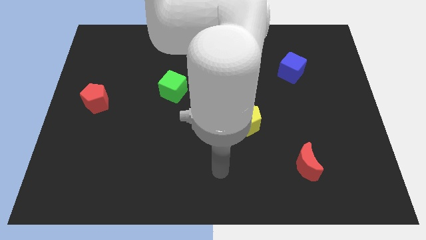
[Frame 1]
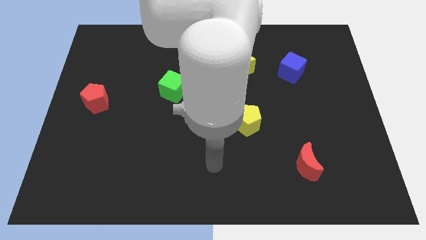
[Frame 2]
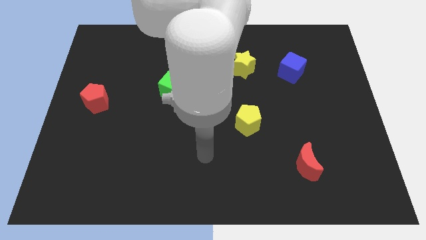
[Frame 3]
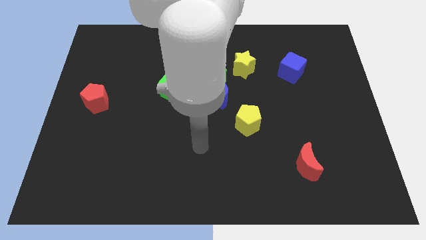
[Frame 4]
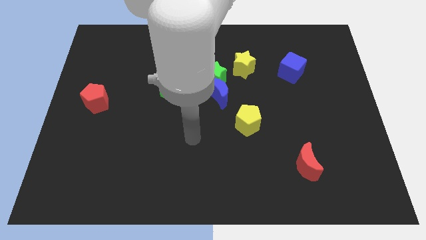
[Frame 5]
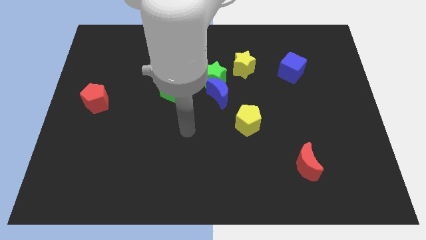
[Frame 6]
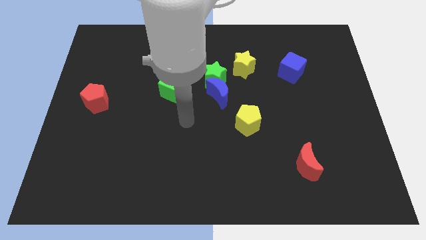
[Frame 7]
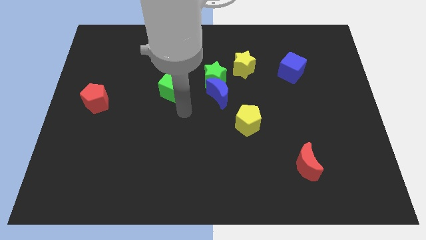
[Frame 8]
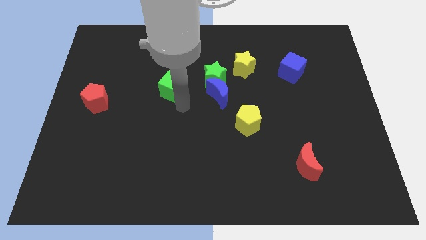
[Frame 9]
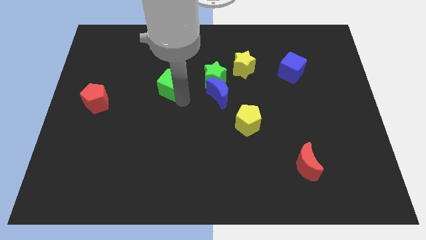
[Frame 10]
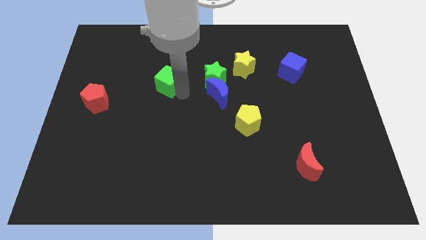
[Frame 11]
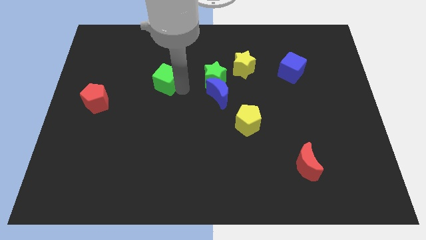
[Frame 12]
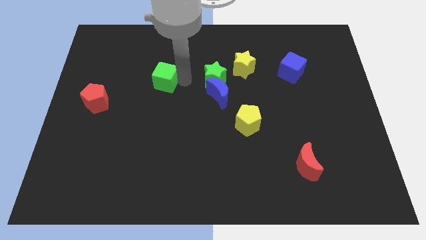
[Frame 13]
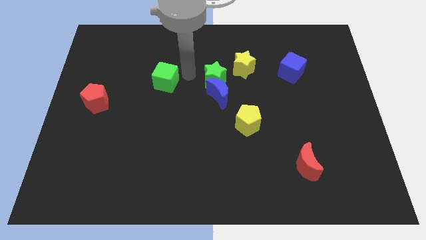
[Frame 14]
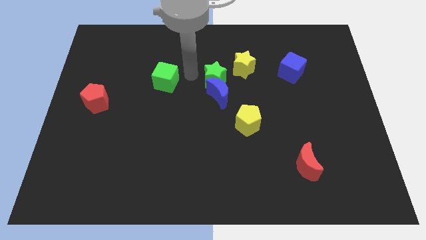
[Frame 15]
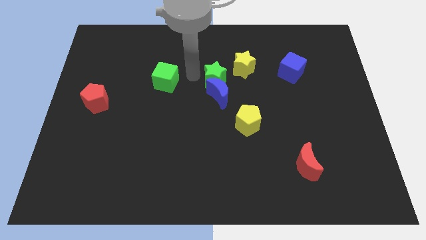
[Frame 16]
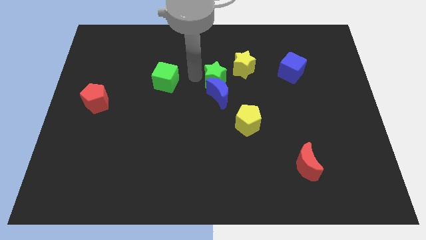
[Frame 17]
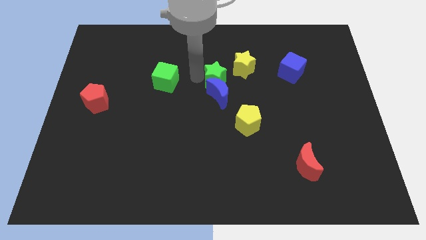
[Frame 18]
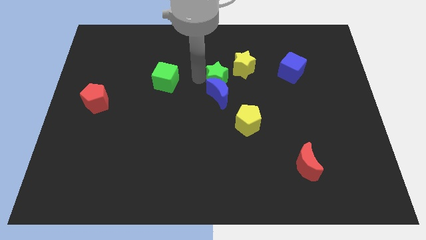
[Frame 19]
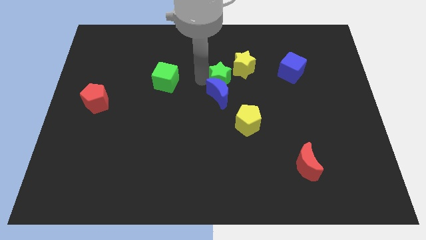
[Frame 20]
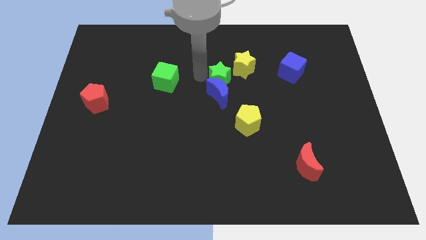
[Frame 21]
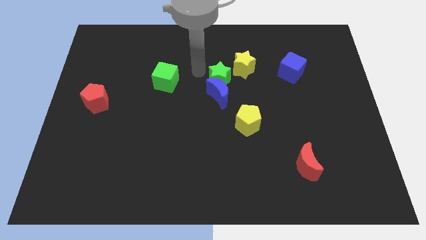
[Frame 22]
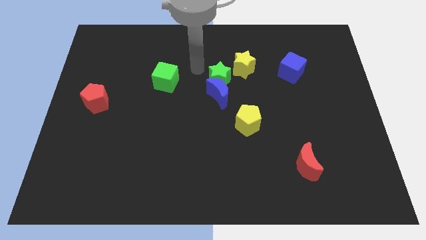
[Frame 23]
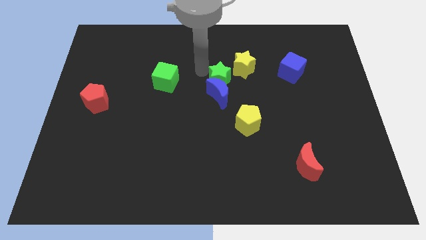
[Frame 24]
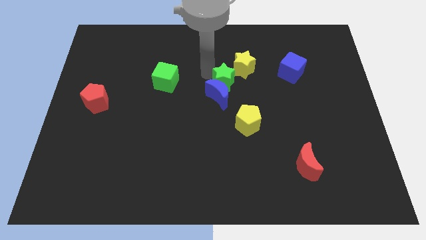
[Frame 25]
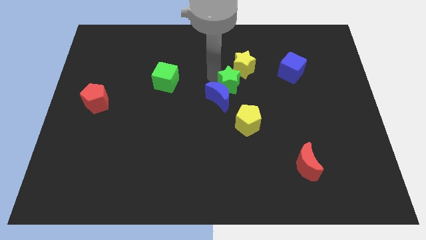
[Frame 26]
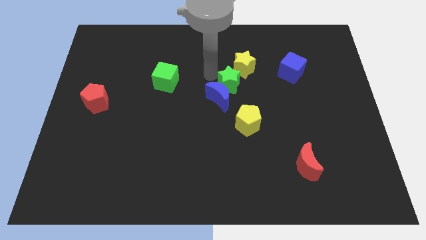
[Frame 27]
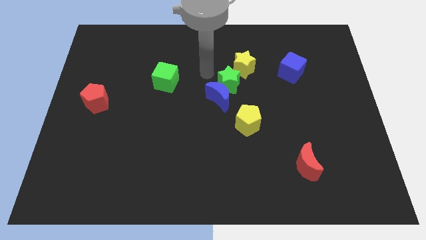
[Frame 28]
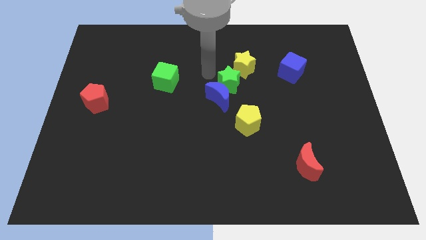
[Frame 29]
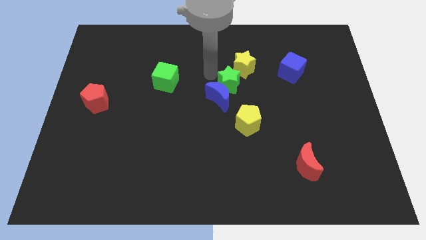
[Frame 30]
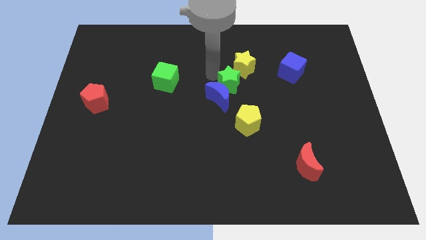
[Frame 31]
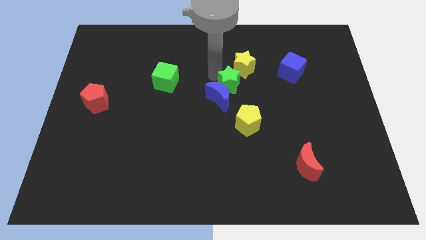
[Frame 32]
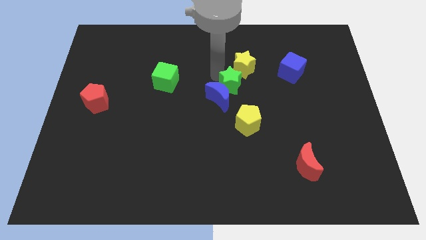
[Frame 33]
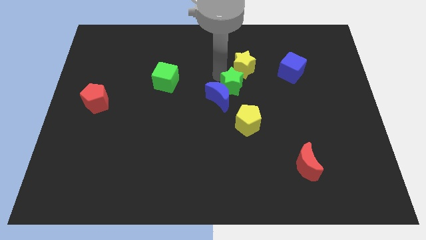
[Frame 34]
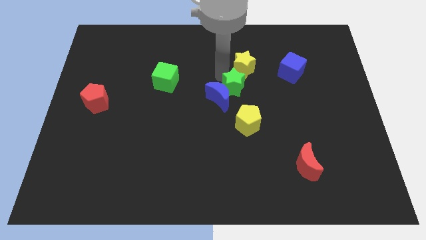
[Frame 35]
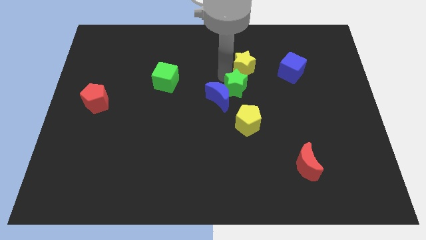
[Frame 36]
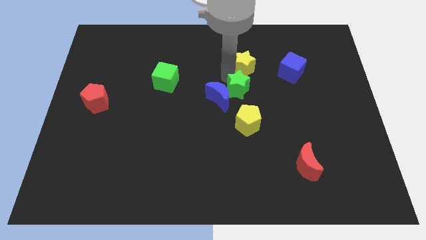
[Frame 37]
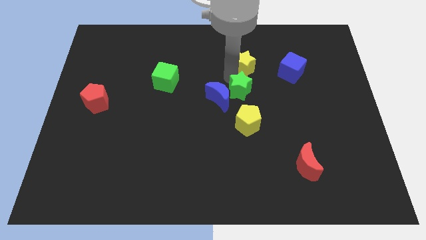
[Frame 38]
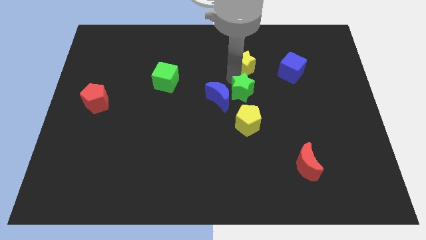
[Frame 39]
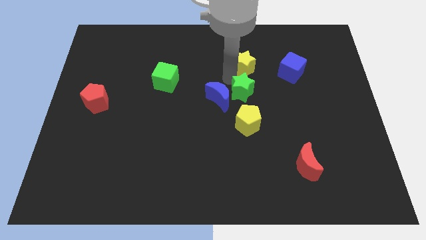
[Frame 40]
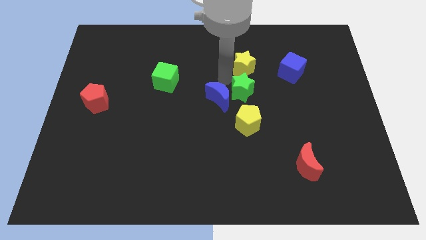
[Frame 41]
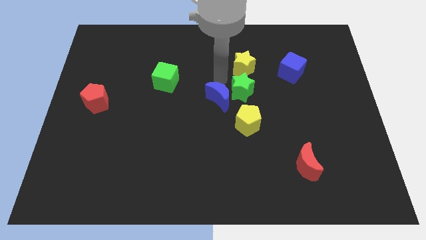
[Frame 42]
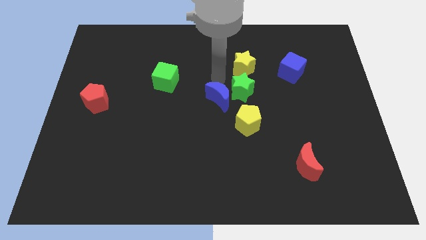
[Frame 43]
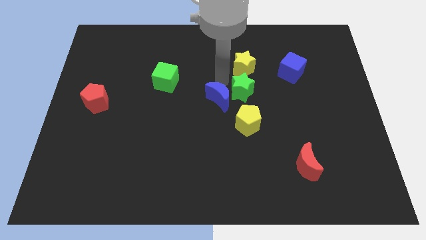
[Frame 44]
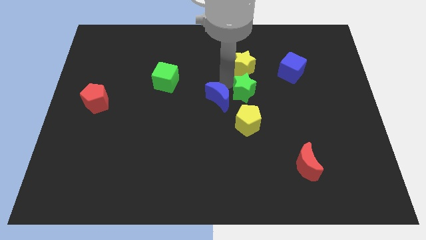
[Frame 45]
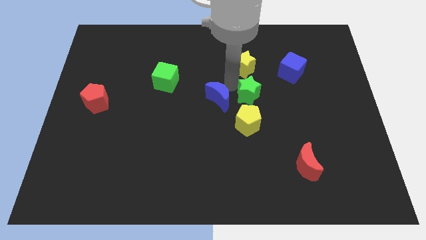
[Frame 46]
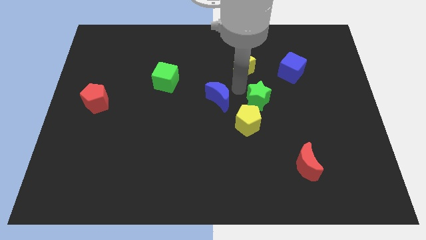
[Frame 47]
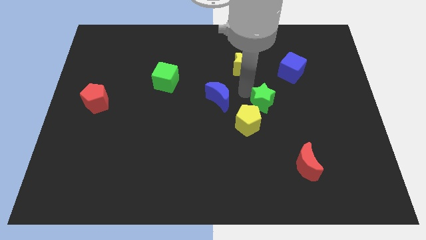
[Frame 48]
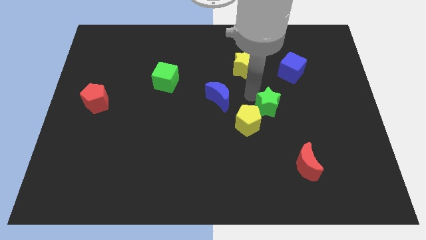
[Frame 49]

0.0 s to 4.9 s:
slide the green star to the right side of the yellow pentagon

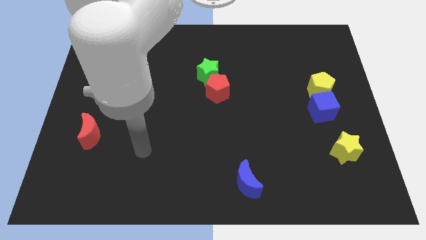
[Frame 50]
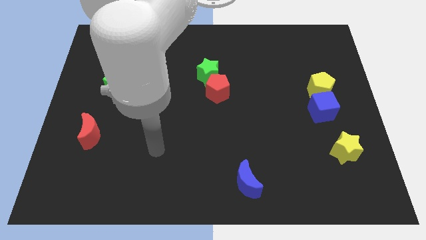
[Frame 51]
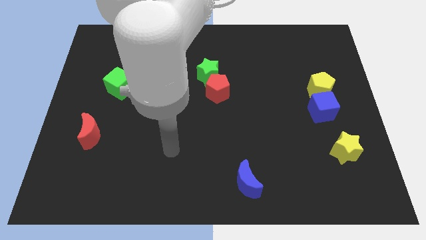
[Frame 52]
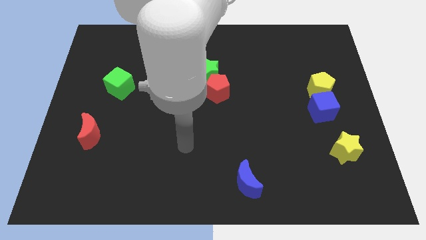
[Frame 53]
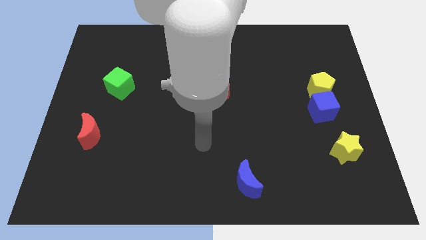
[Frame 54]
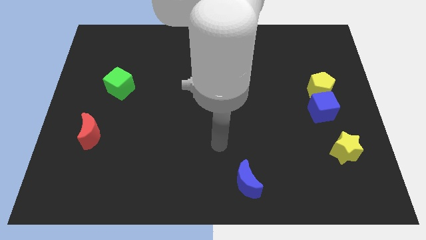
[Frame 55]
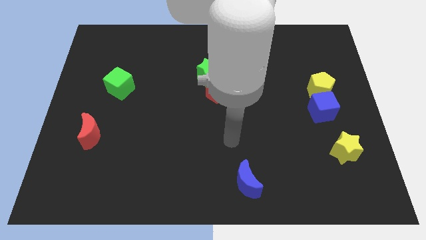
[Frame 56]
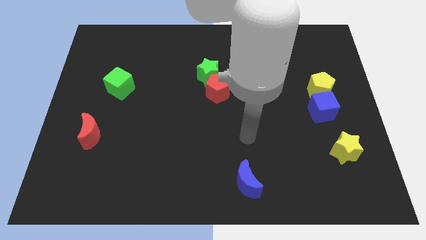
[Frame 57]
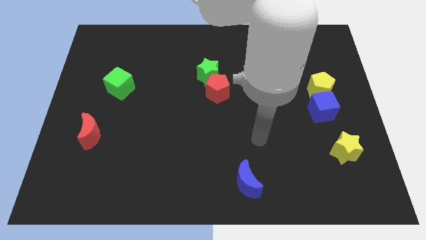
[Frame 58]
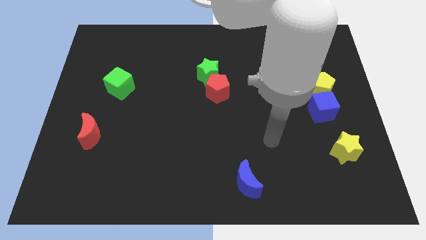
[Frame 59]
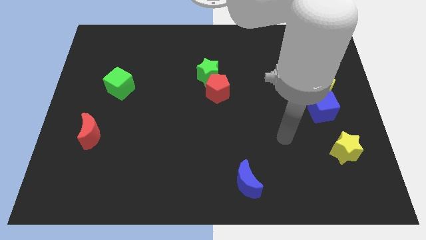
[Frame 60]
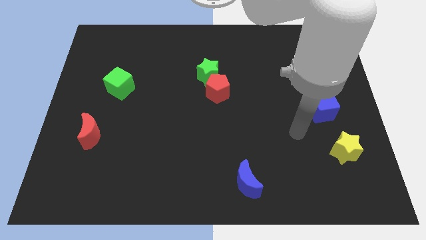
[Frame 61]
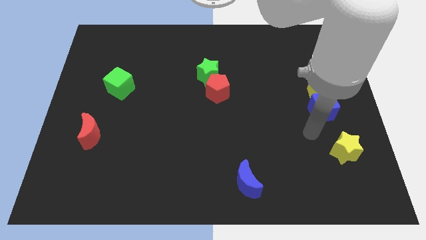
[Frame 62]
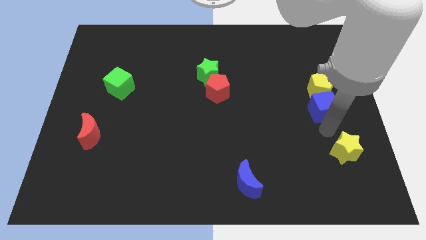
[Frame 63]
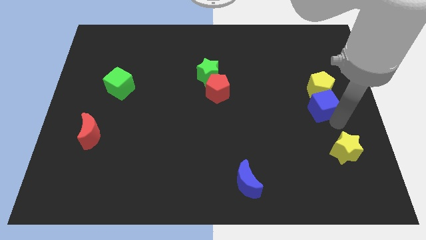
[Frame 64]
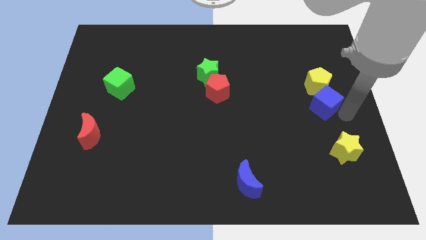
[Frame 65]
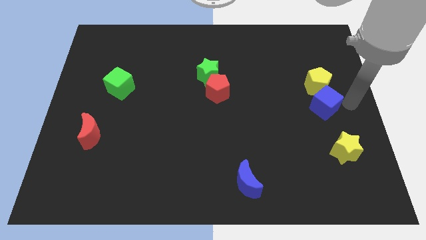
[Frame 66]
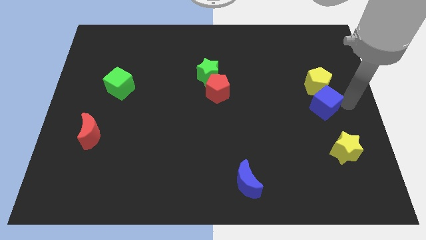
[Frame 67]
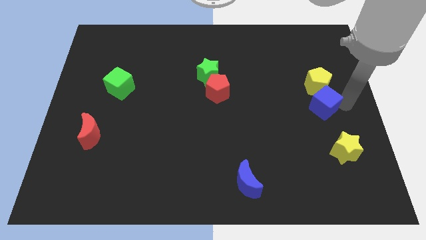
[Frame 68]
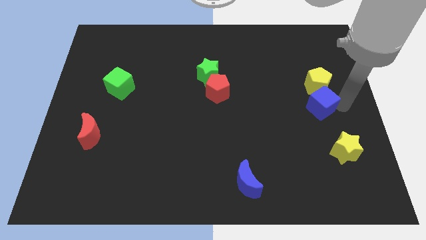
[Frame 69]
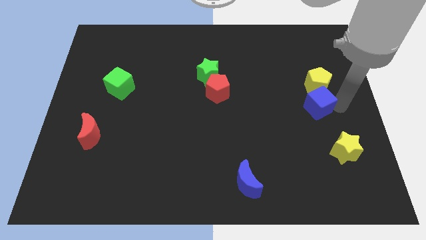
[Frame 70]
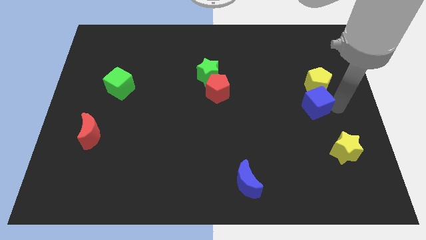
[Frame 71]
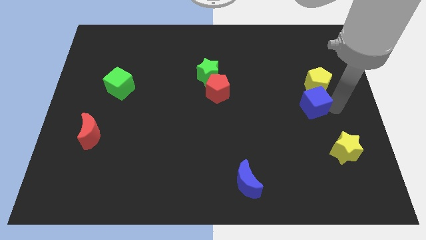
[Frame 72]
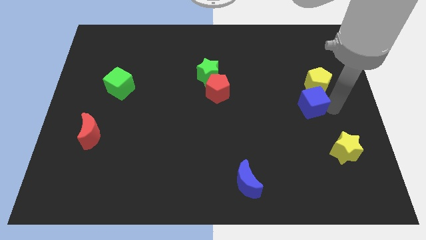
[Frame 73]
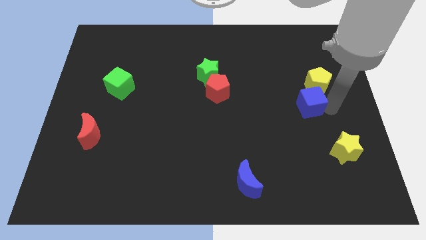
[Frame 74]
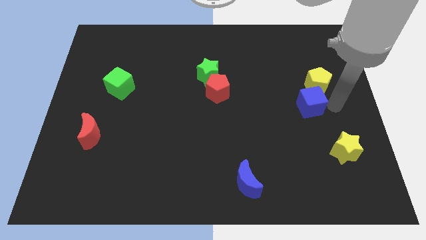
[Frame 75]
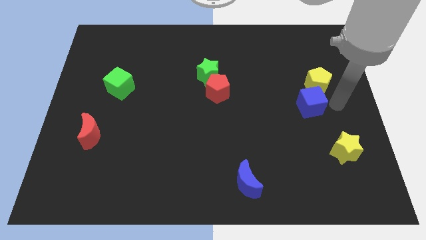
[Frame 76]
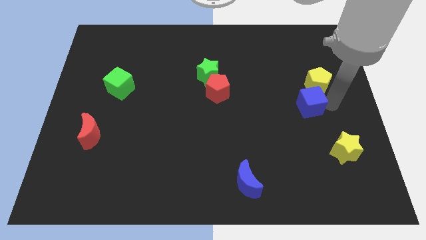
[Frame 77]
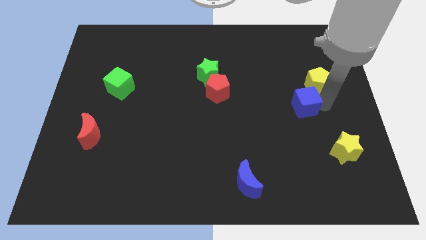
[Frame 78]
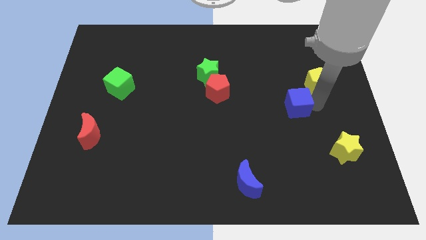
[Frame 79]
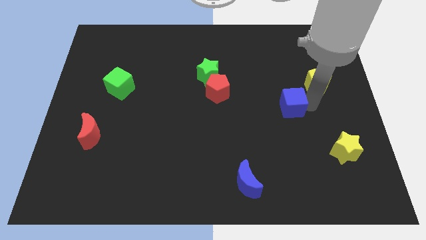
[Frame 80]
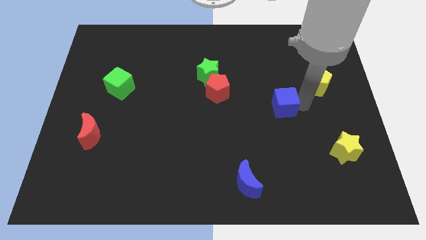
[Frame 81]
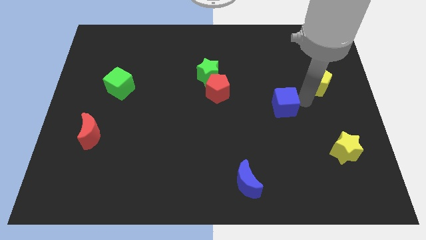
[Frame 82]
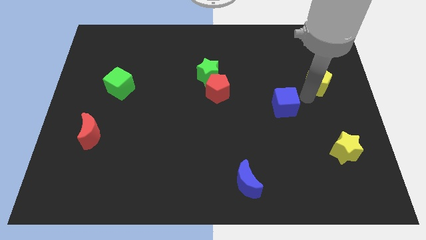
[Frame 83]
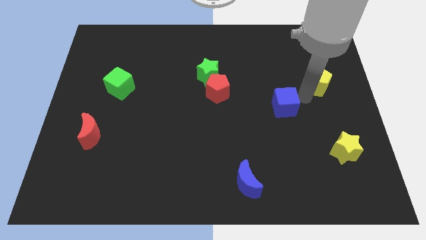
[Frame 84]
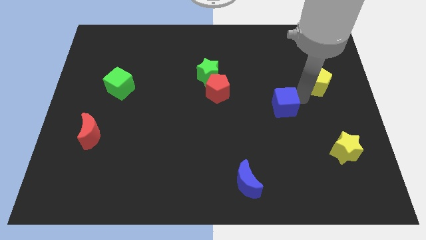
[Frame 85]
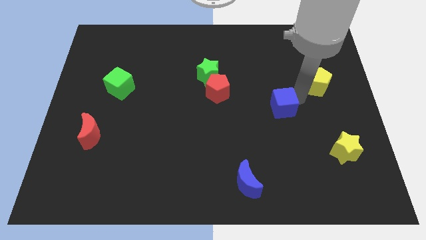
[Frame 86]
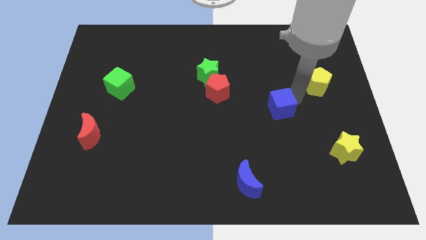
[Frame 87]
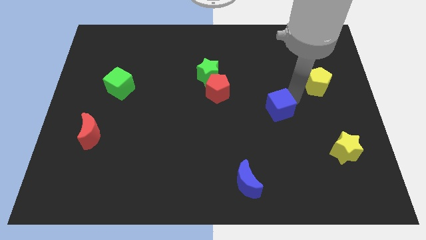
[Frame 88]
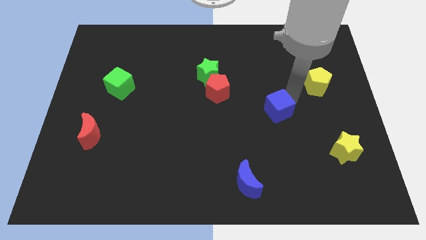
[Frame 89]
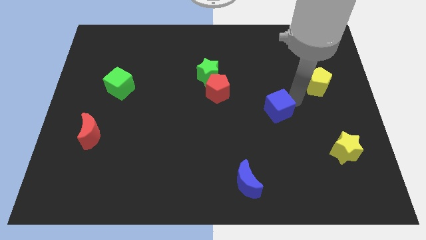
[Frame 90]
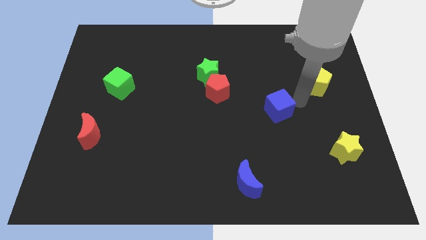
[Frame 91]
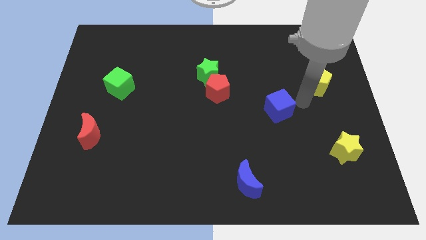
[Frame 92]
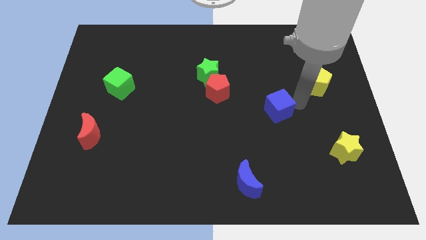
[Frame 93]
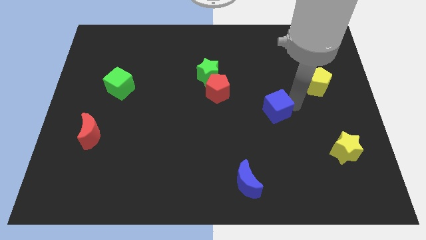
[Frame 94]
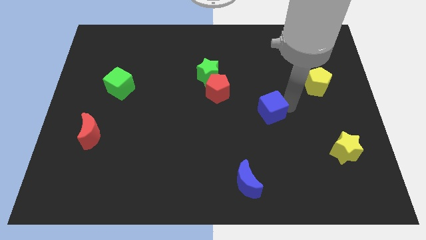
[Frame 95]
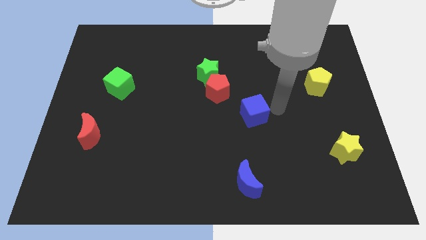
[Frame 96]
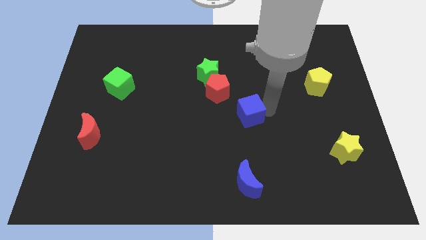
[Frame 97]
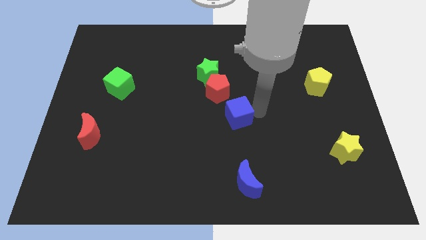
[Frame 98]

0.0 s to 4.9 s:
move the blue cube below the red pentagon
